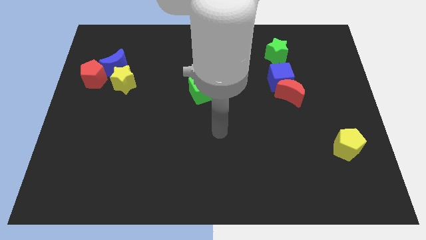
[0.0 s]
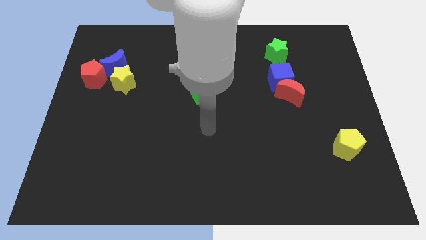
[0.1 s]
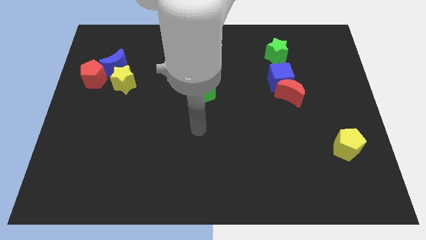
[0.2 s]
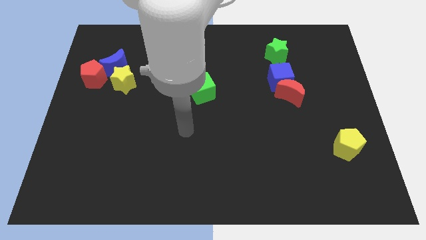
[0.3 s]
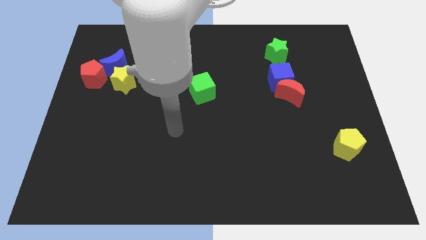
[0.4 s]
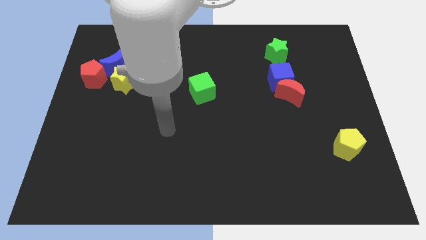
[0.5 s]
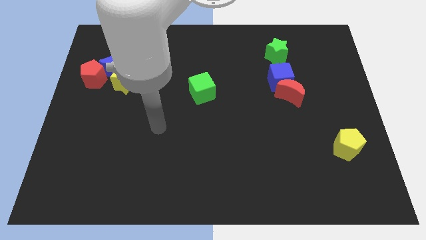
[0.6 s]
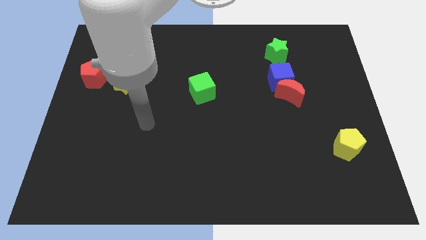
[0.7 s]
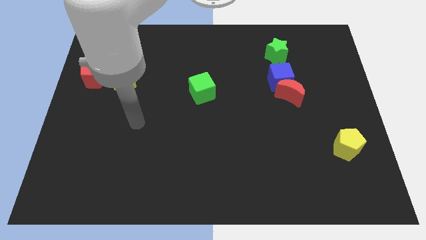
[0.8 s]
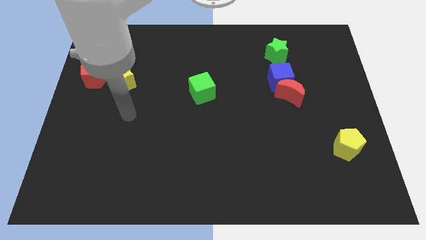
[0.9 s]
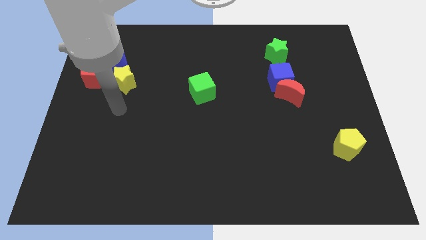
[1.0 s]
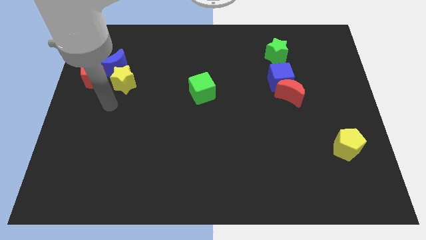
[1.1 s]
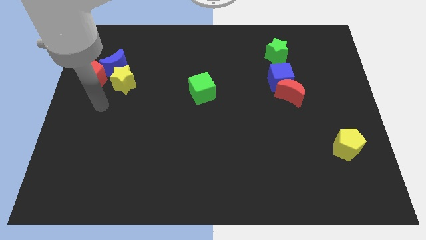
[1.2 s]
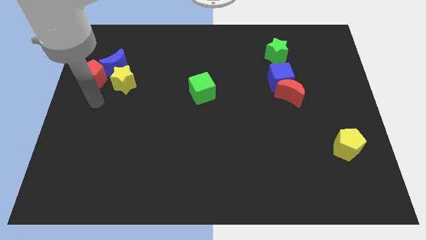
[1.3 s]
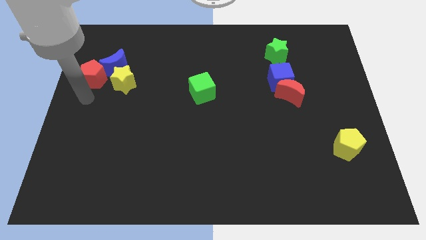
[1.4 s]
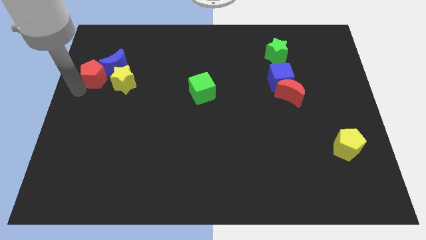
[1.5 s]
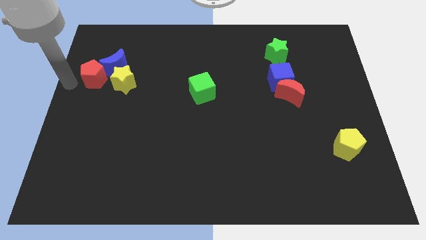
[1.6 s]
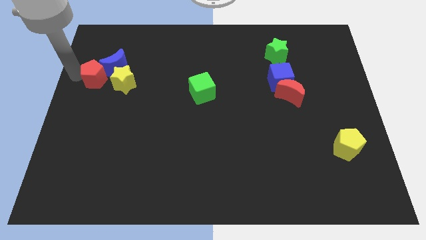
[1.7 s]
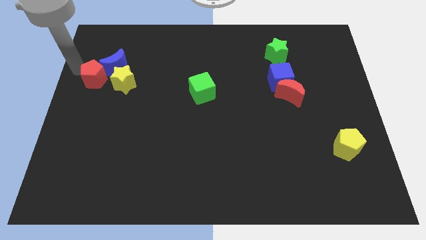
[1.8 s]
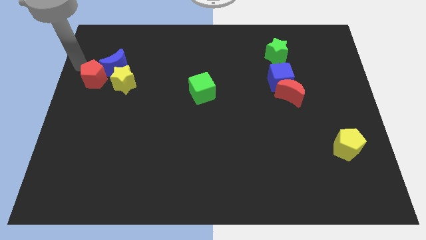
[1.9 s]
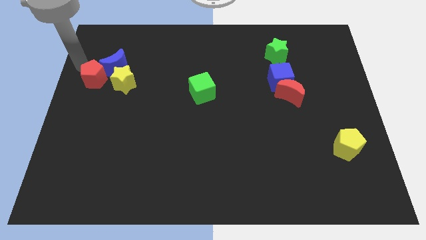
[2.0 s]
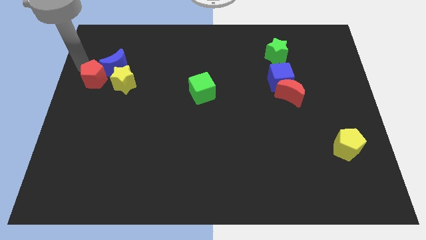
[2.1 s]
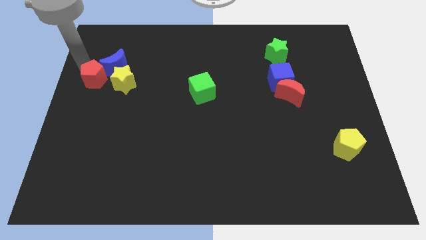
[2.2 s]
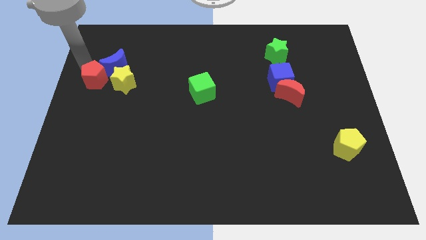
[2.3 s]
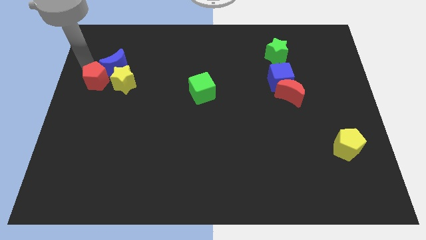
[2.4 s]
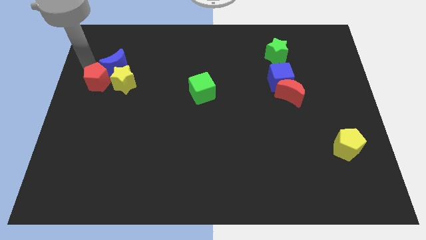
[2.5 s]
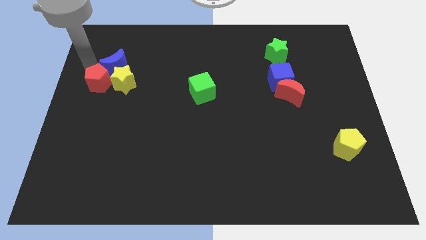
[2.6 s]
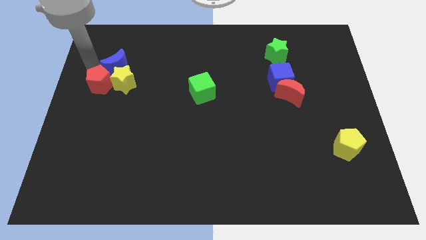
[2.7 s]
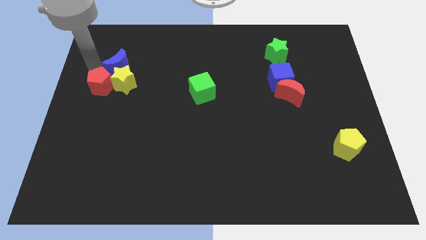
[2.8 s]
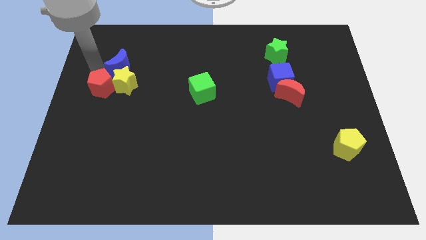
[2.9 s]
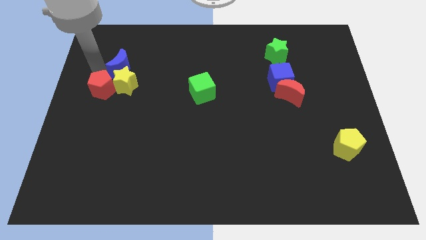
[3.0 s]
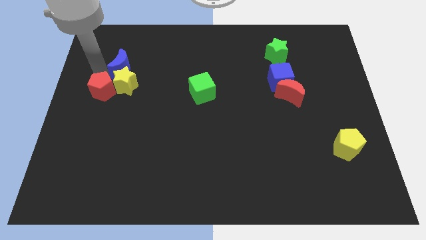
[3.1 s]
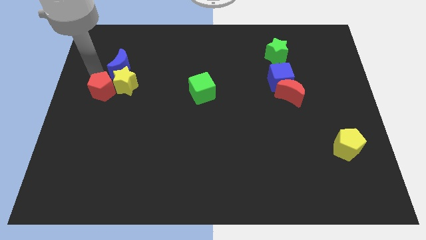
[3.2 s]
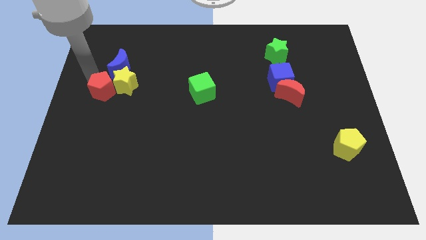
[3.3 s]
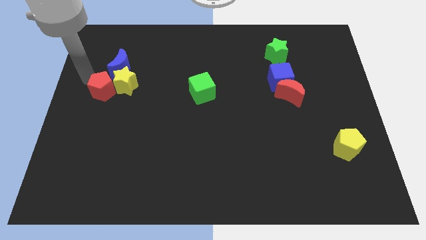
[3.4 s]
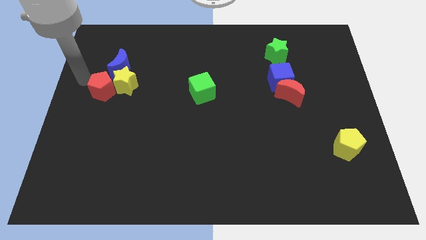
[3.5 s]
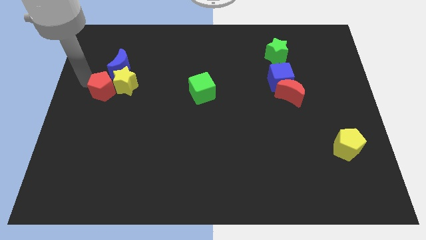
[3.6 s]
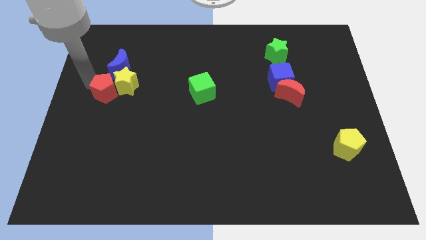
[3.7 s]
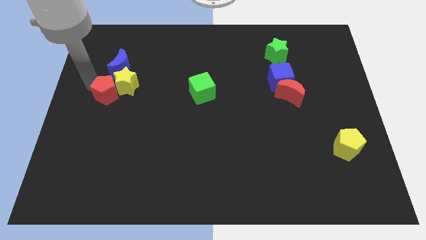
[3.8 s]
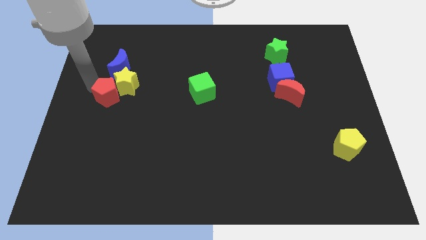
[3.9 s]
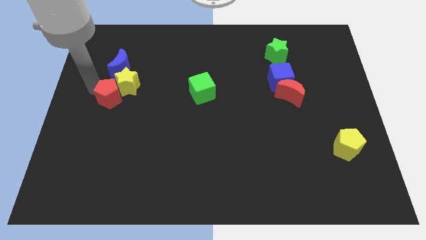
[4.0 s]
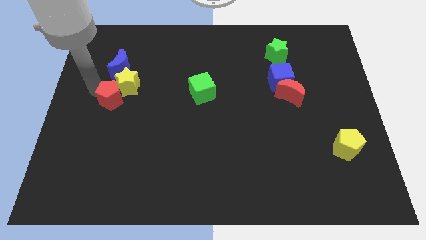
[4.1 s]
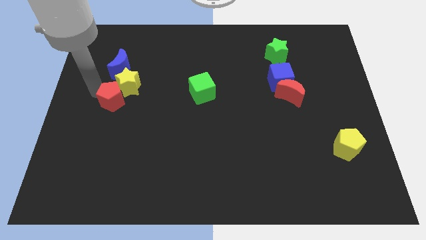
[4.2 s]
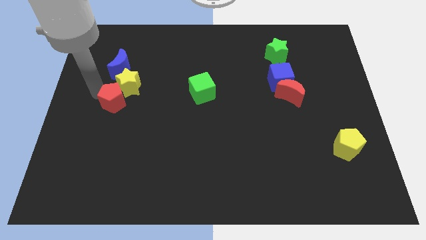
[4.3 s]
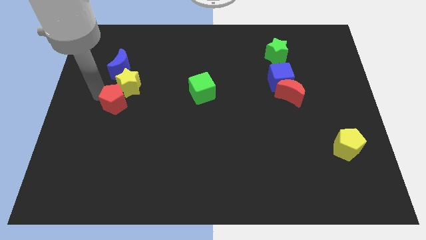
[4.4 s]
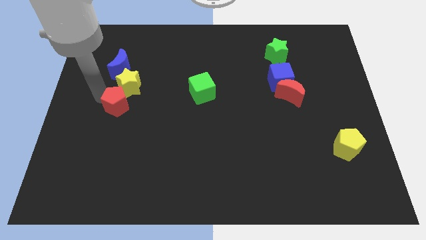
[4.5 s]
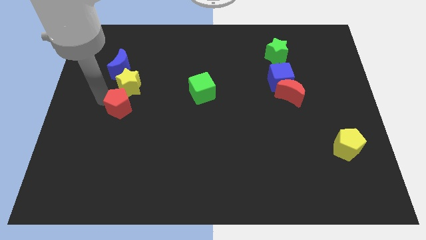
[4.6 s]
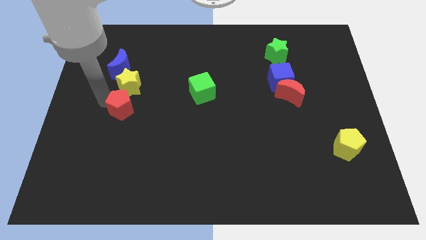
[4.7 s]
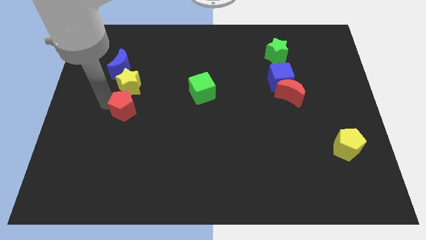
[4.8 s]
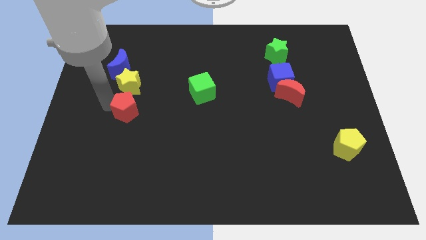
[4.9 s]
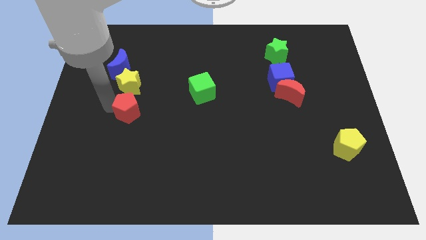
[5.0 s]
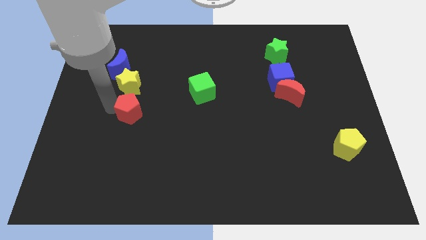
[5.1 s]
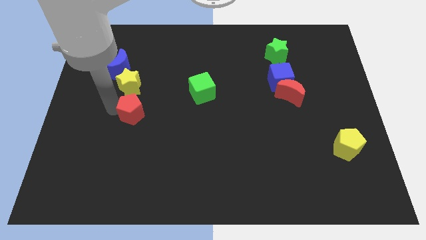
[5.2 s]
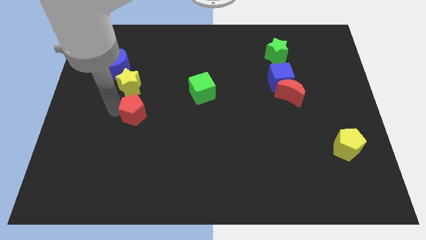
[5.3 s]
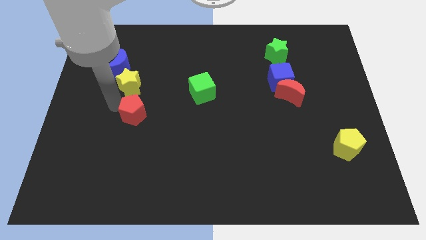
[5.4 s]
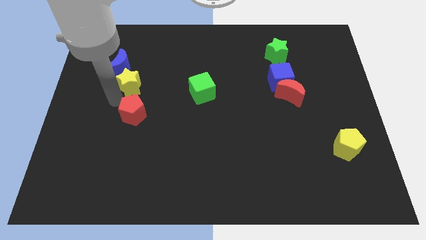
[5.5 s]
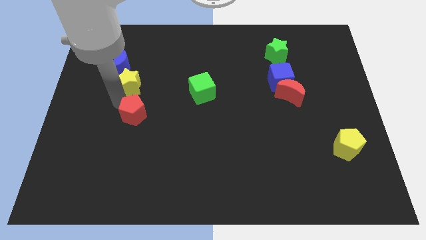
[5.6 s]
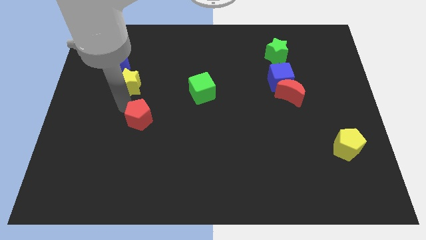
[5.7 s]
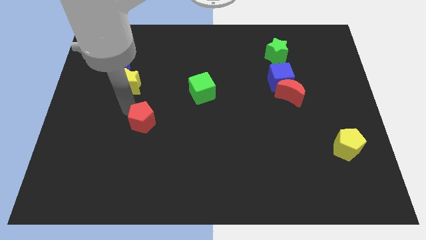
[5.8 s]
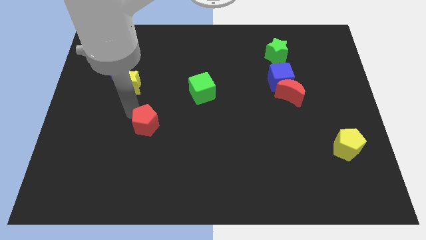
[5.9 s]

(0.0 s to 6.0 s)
push the red pentagon down and then right

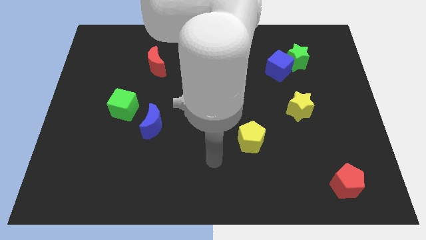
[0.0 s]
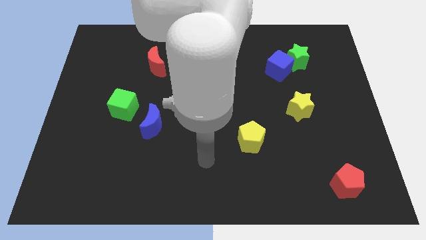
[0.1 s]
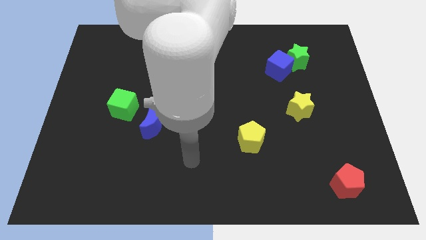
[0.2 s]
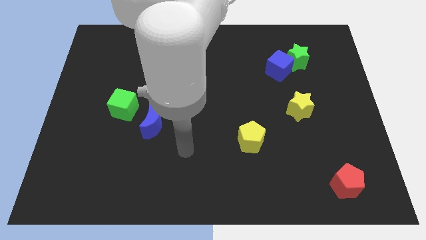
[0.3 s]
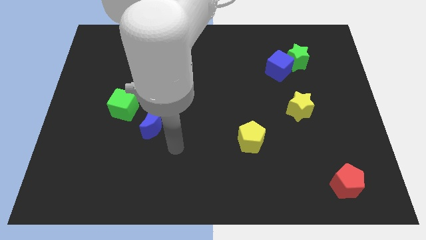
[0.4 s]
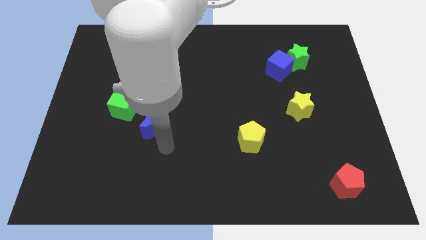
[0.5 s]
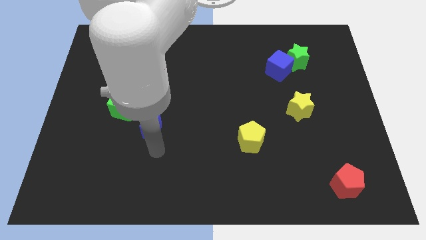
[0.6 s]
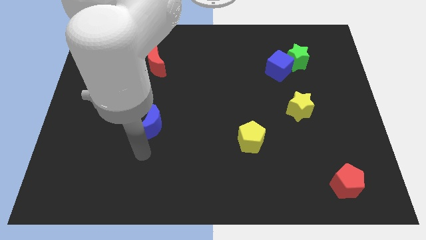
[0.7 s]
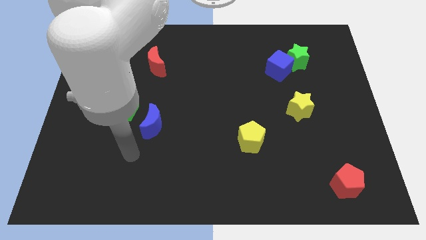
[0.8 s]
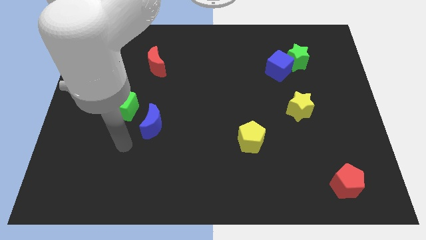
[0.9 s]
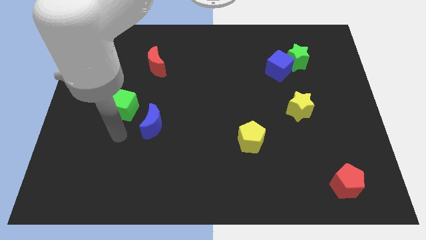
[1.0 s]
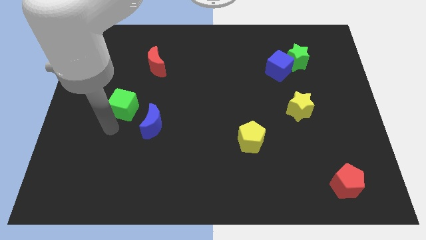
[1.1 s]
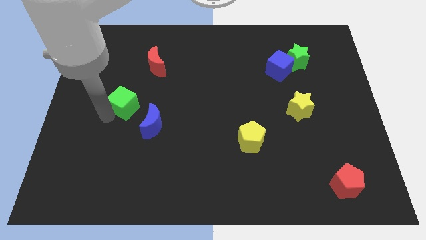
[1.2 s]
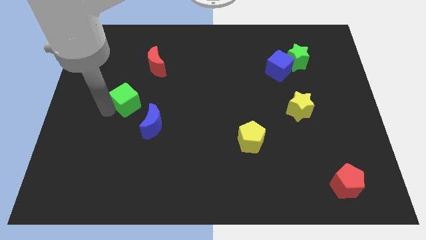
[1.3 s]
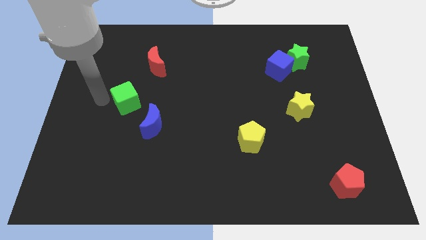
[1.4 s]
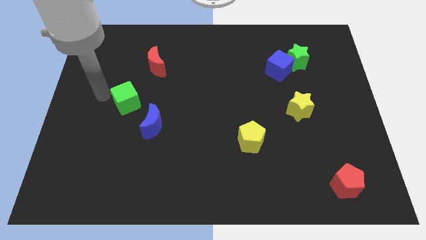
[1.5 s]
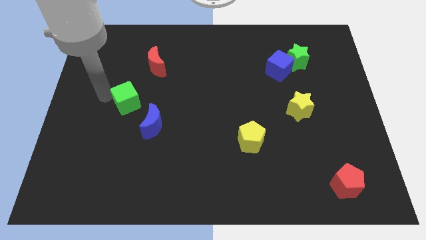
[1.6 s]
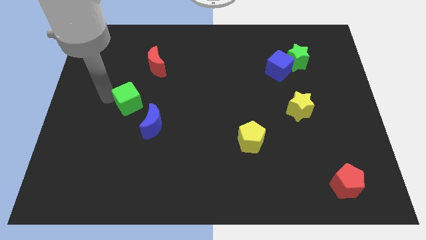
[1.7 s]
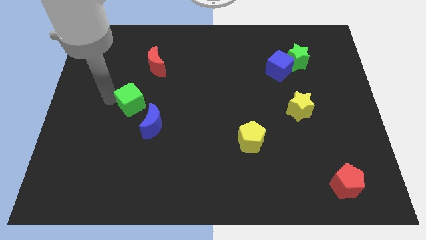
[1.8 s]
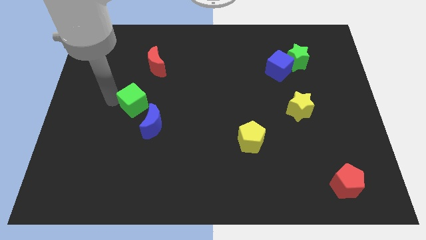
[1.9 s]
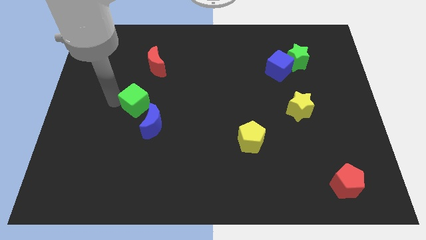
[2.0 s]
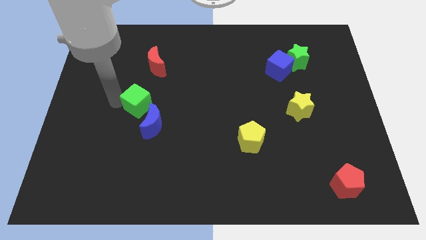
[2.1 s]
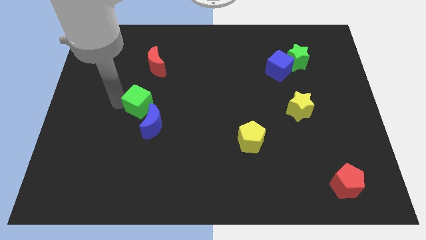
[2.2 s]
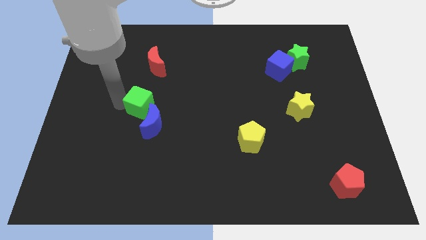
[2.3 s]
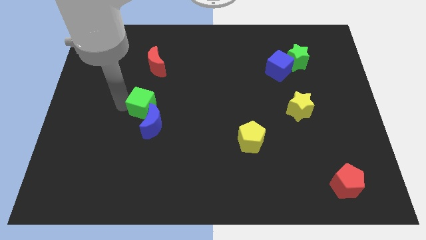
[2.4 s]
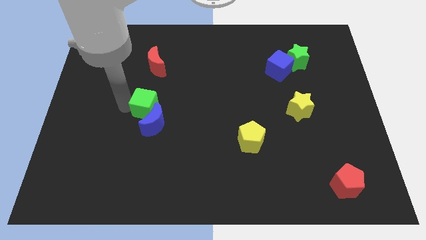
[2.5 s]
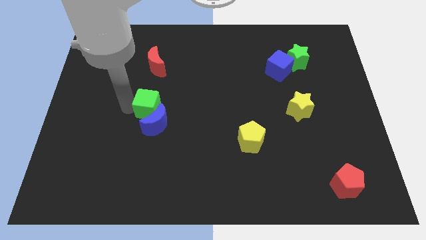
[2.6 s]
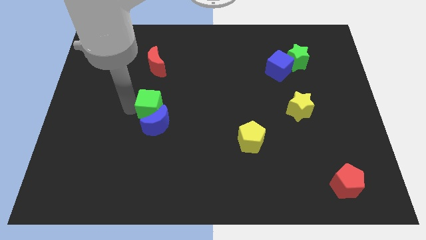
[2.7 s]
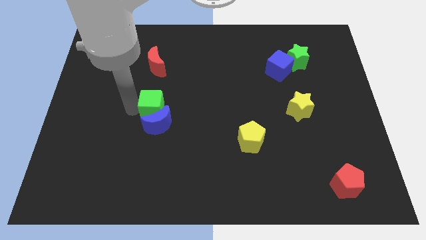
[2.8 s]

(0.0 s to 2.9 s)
slightly move the green cube right
